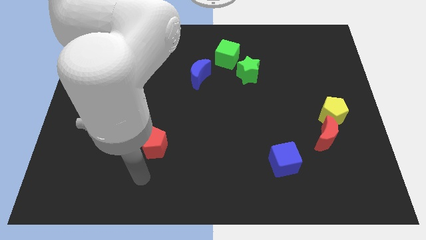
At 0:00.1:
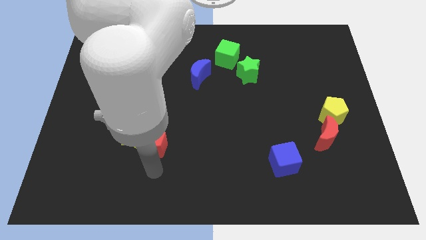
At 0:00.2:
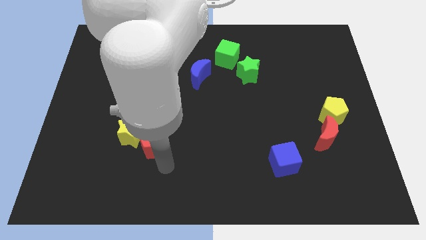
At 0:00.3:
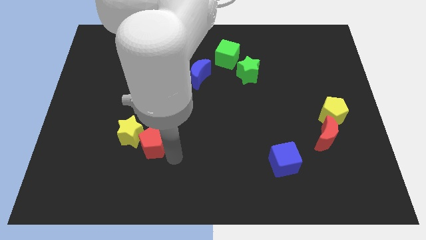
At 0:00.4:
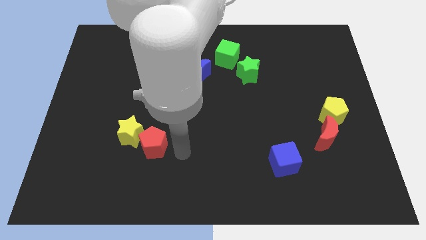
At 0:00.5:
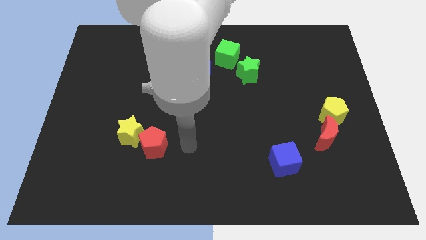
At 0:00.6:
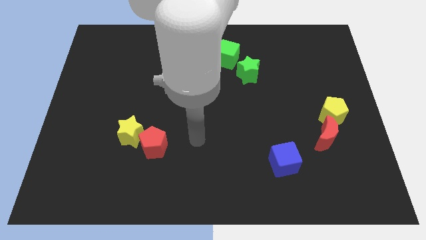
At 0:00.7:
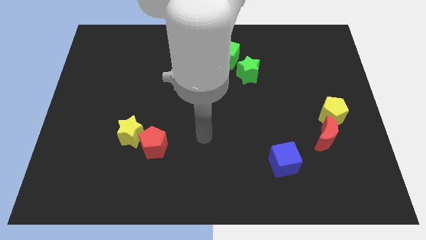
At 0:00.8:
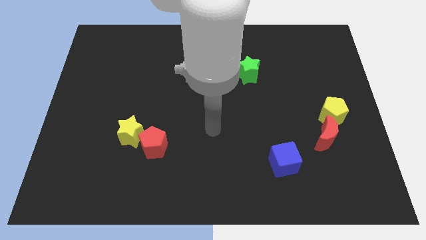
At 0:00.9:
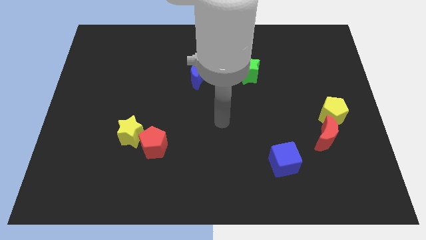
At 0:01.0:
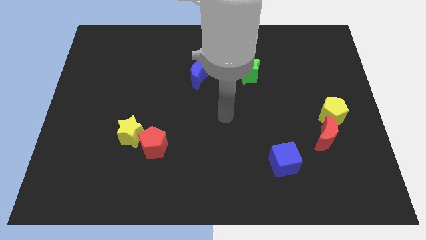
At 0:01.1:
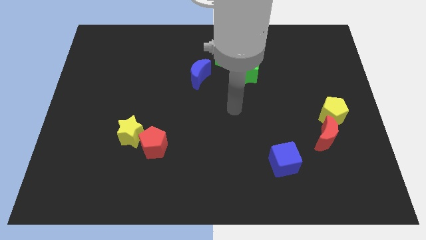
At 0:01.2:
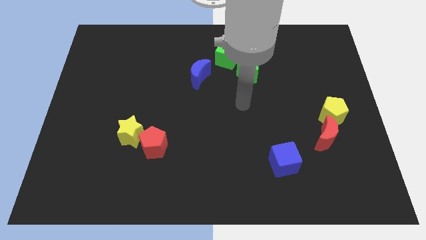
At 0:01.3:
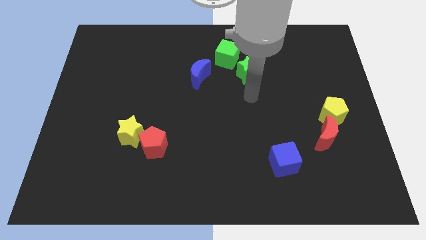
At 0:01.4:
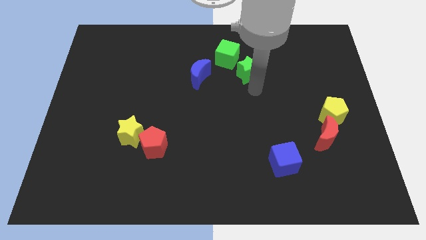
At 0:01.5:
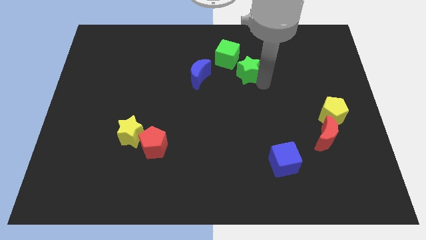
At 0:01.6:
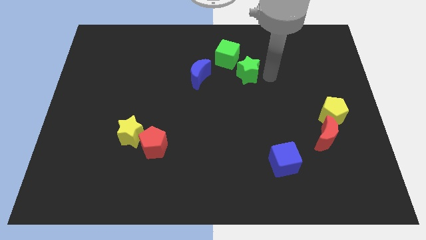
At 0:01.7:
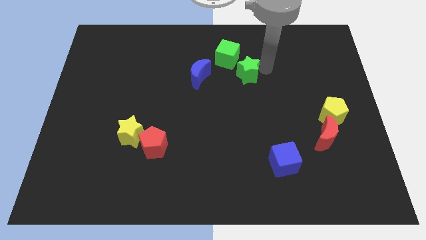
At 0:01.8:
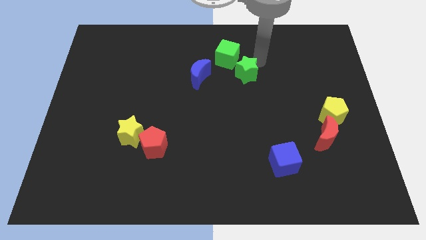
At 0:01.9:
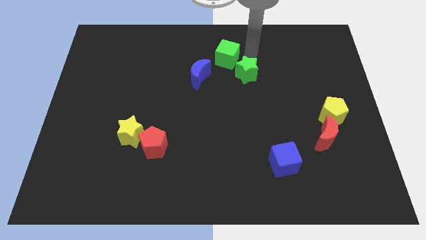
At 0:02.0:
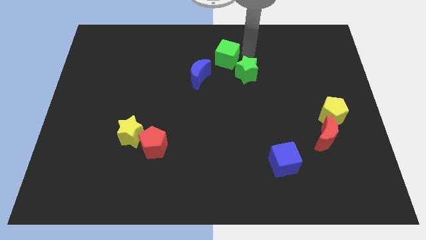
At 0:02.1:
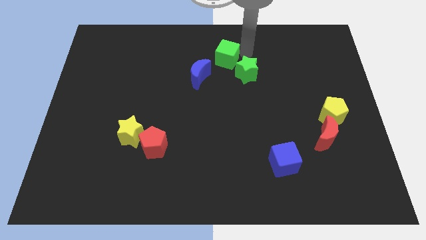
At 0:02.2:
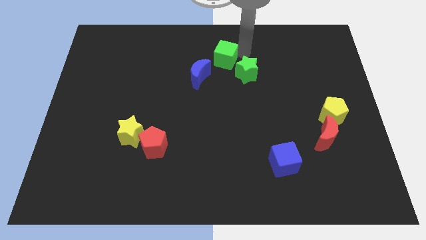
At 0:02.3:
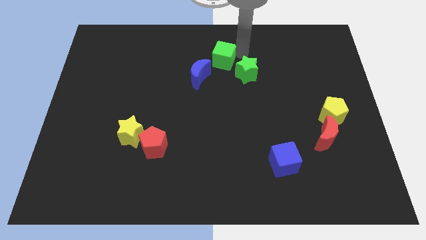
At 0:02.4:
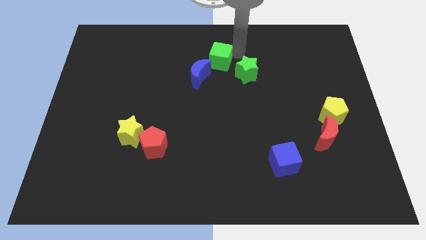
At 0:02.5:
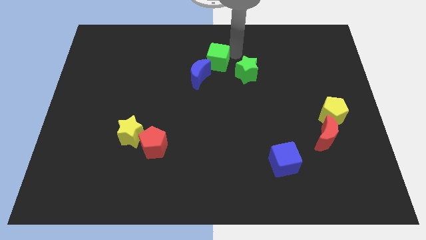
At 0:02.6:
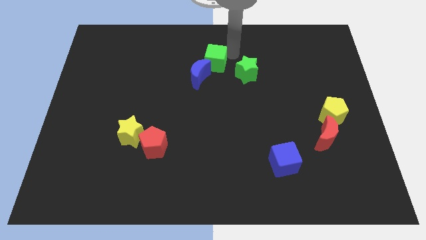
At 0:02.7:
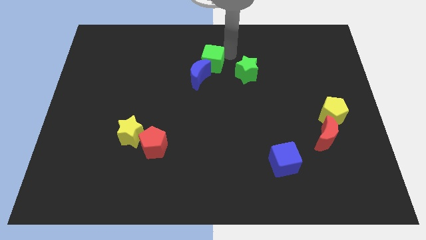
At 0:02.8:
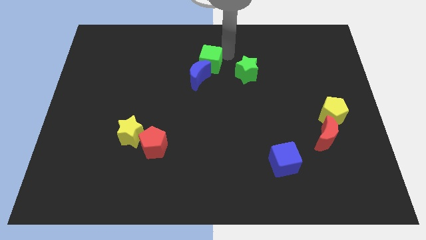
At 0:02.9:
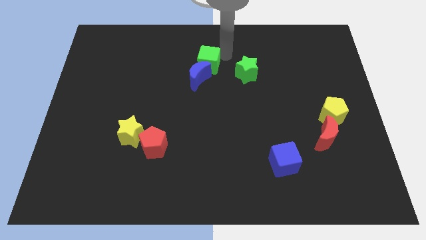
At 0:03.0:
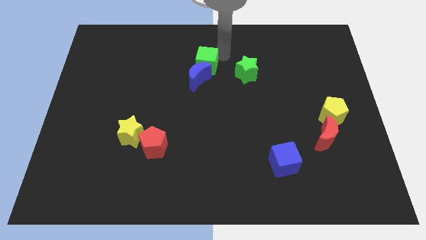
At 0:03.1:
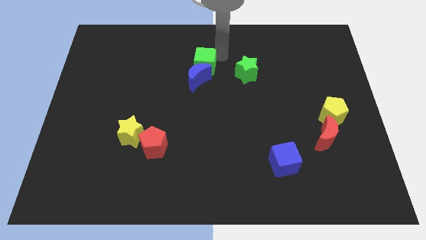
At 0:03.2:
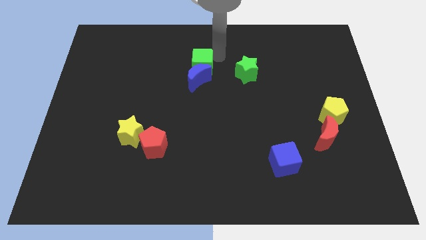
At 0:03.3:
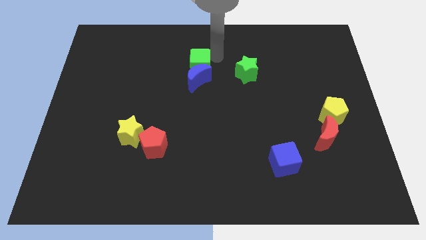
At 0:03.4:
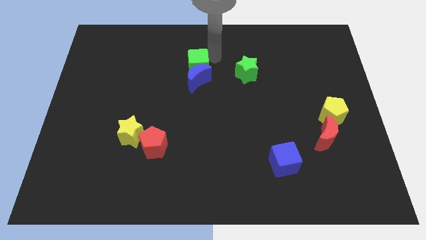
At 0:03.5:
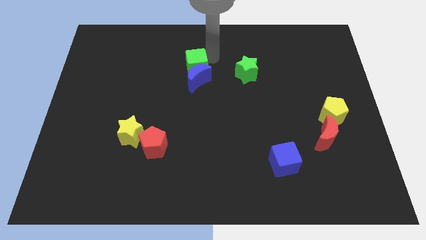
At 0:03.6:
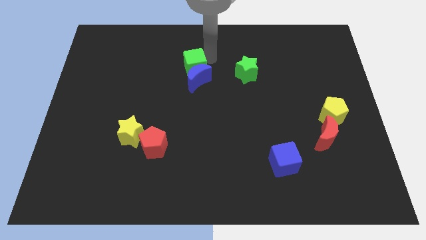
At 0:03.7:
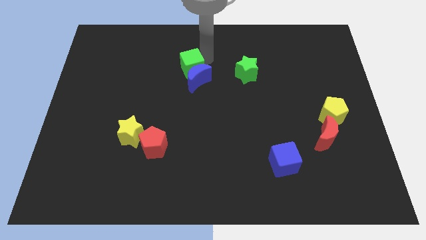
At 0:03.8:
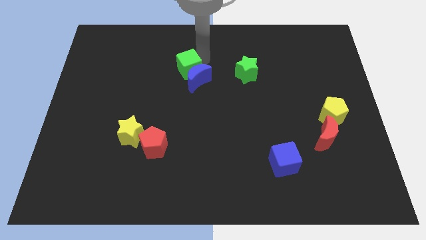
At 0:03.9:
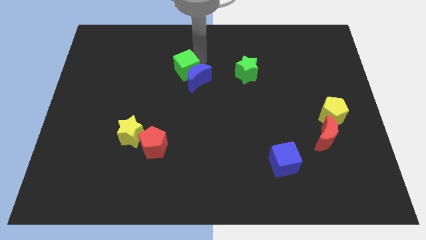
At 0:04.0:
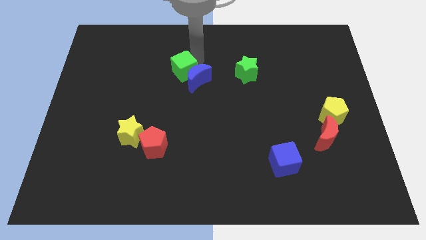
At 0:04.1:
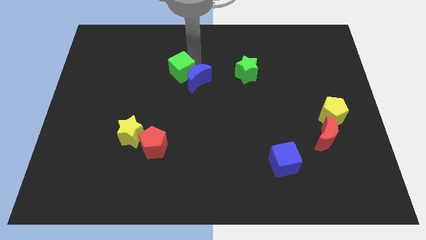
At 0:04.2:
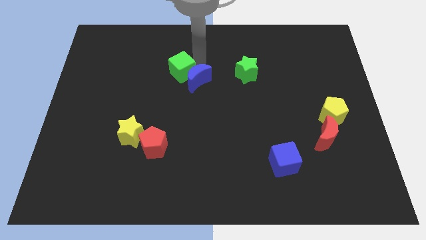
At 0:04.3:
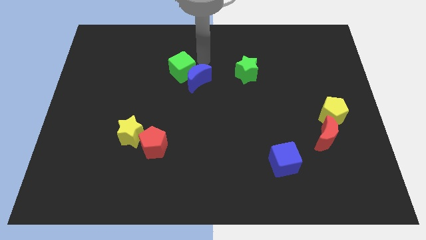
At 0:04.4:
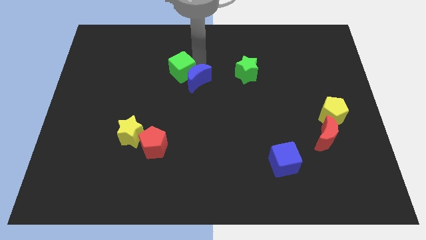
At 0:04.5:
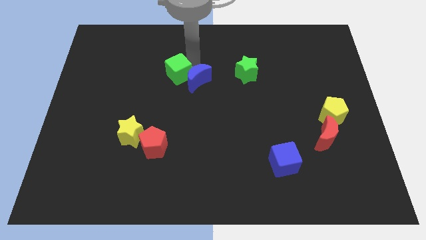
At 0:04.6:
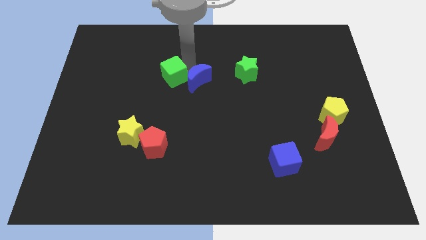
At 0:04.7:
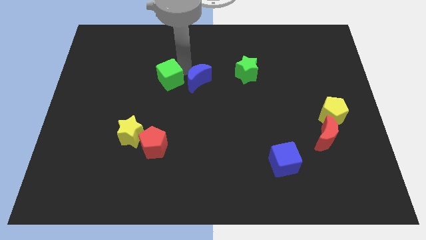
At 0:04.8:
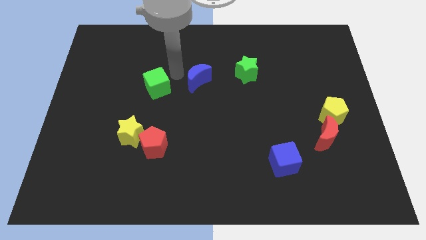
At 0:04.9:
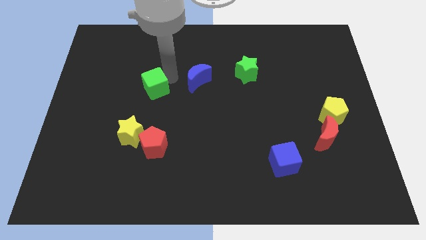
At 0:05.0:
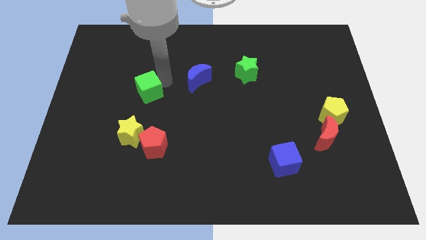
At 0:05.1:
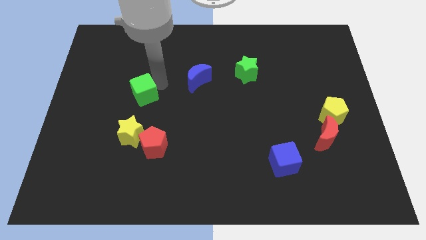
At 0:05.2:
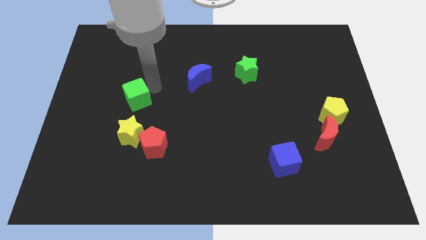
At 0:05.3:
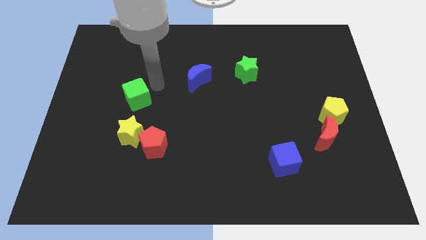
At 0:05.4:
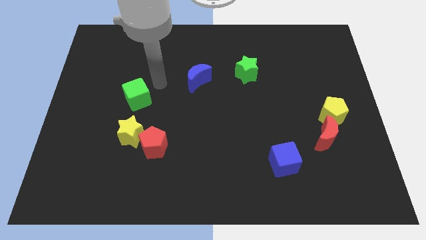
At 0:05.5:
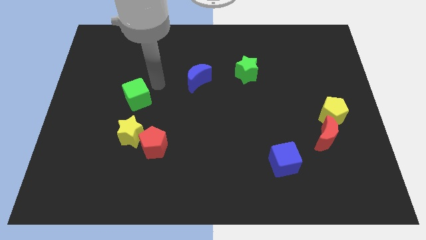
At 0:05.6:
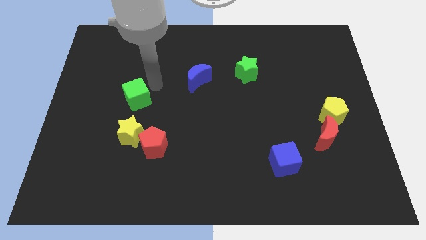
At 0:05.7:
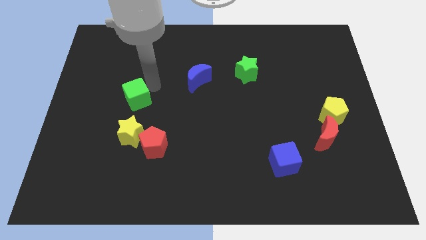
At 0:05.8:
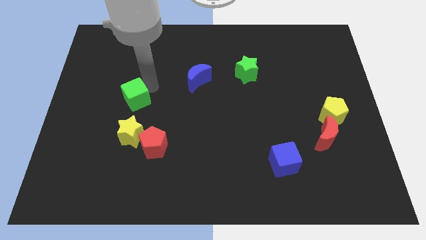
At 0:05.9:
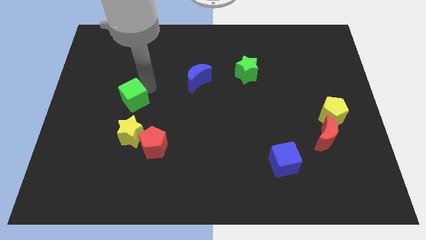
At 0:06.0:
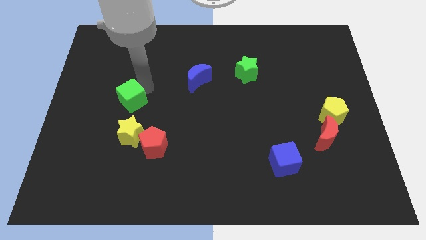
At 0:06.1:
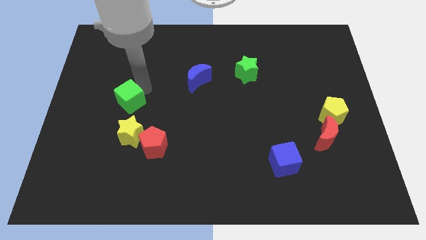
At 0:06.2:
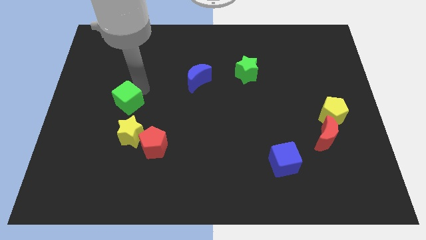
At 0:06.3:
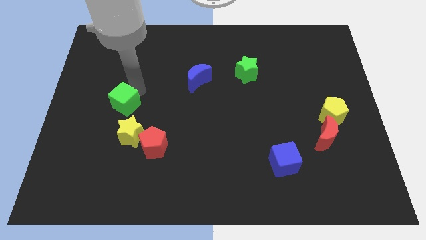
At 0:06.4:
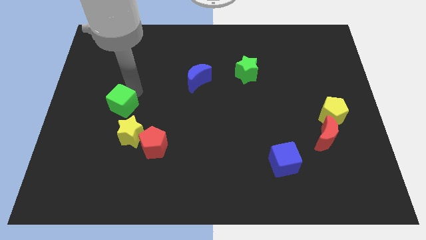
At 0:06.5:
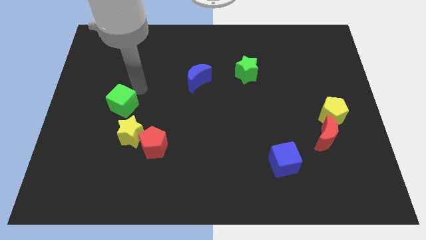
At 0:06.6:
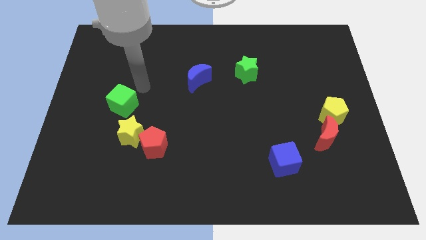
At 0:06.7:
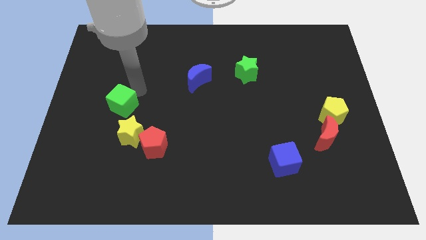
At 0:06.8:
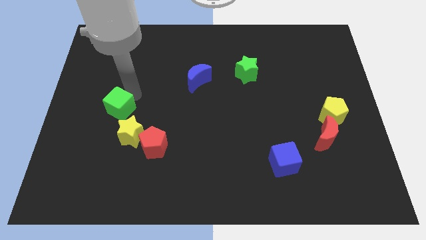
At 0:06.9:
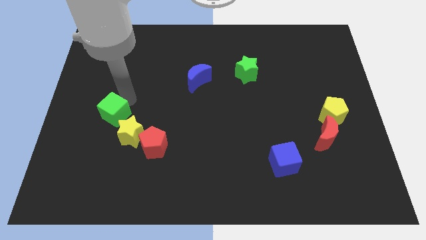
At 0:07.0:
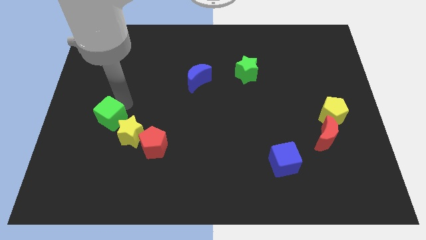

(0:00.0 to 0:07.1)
put the green cube left of the yellow star

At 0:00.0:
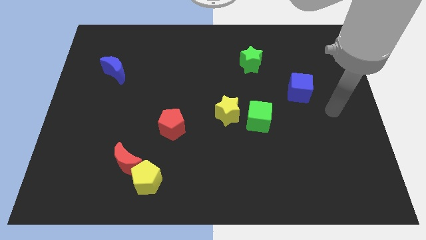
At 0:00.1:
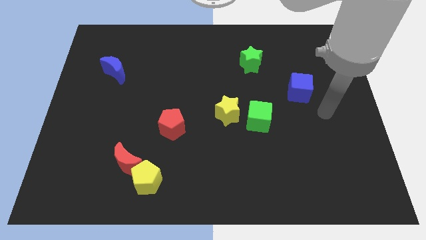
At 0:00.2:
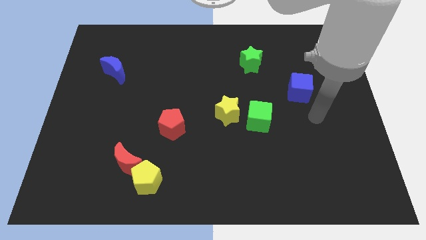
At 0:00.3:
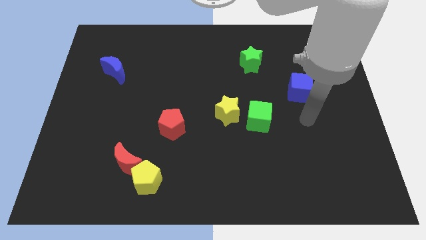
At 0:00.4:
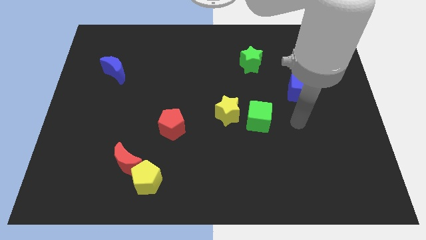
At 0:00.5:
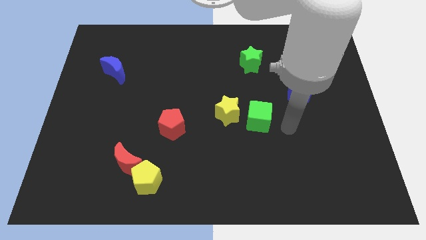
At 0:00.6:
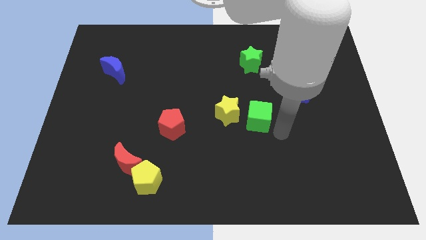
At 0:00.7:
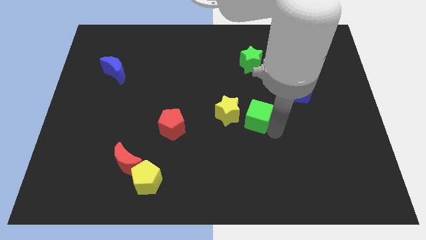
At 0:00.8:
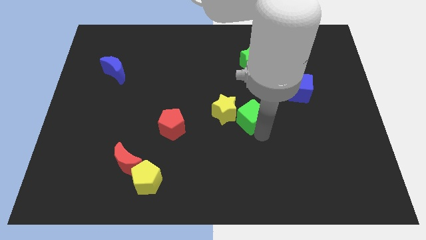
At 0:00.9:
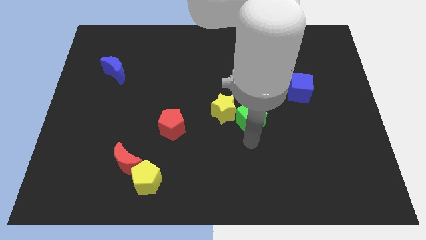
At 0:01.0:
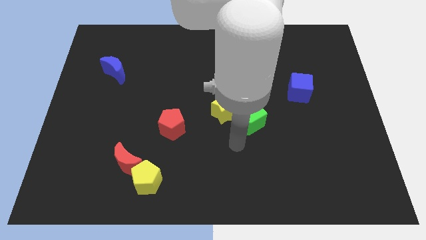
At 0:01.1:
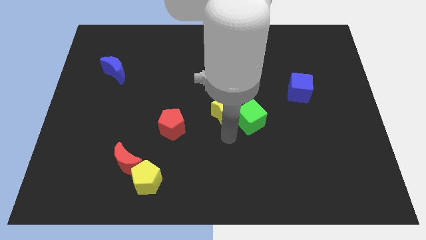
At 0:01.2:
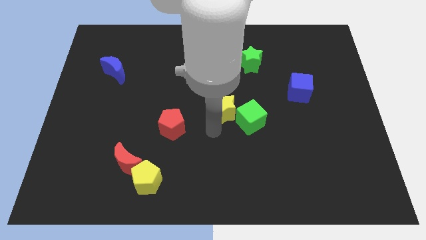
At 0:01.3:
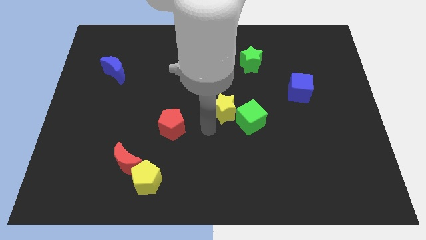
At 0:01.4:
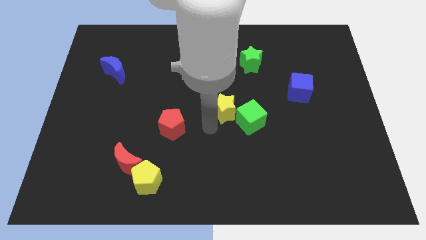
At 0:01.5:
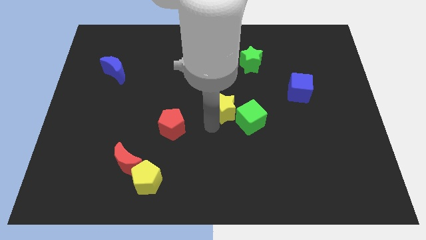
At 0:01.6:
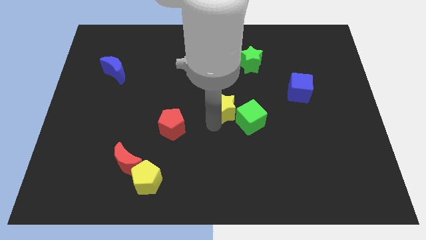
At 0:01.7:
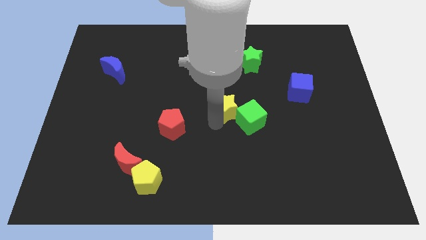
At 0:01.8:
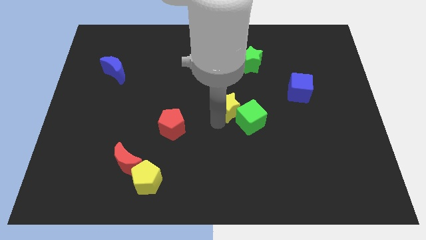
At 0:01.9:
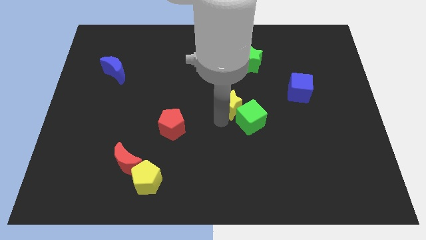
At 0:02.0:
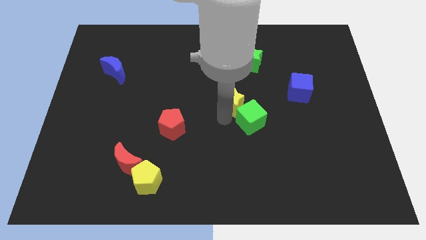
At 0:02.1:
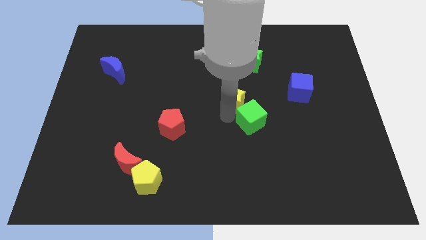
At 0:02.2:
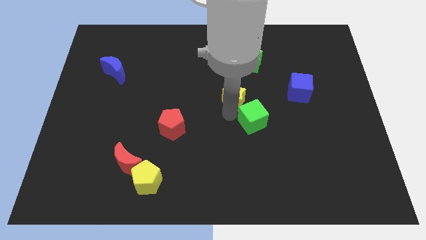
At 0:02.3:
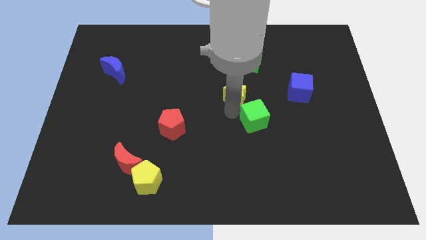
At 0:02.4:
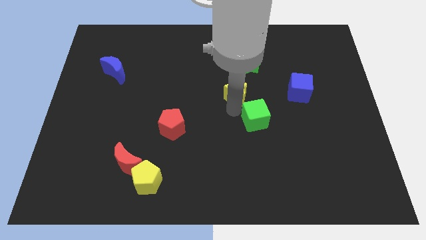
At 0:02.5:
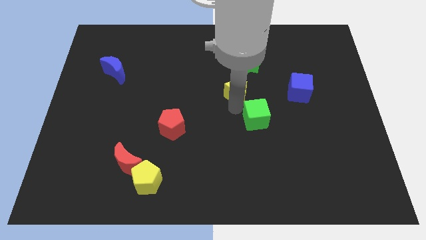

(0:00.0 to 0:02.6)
put the yellow star diagonally down and to the left of the green star
